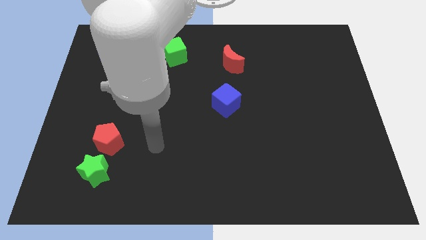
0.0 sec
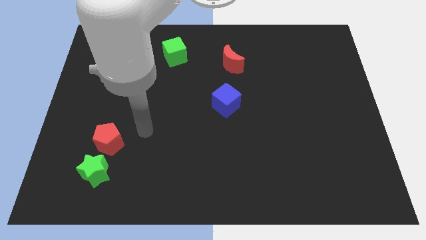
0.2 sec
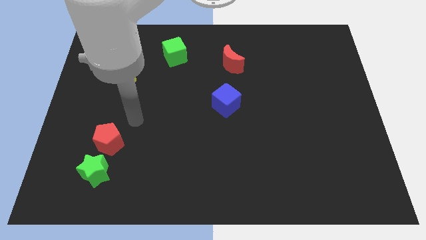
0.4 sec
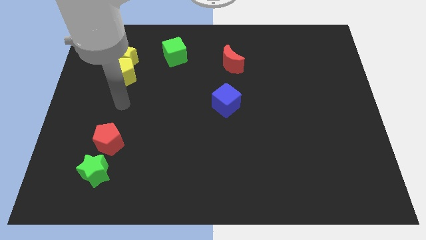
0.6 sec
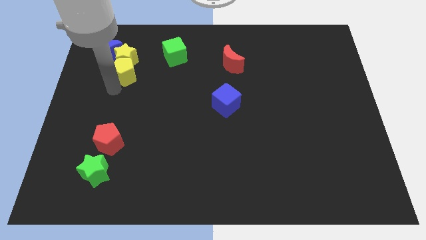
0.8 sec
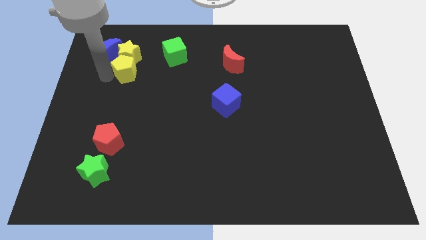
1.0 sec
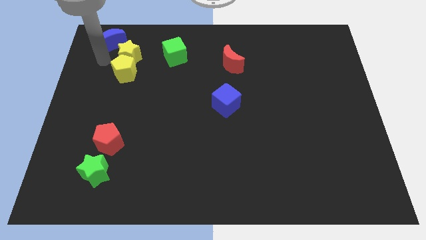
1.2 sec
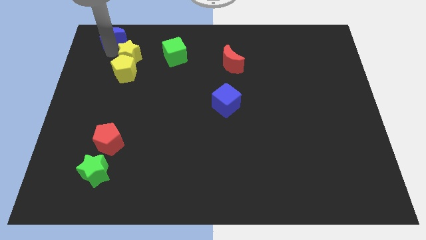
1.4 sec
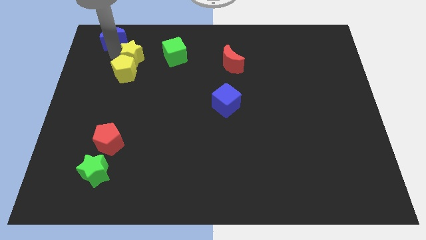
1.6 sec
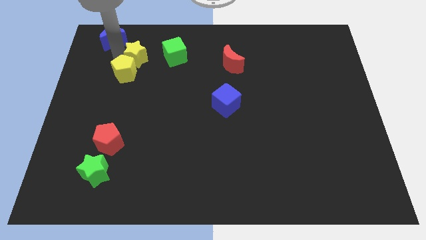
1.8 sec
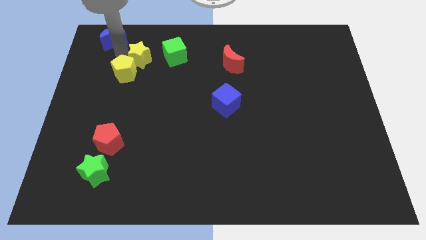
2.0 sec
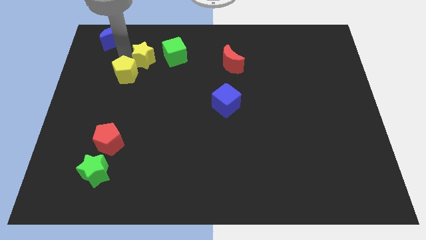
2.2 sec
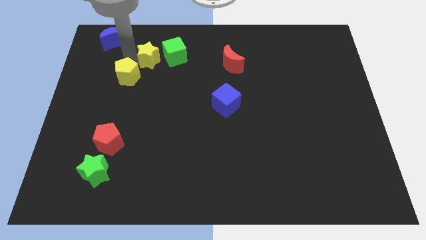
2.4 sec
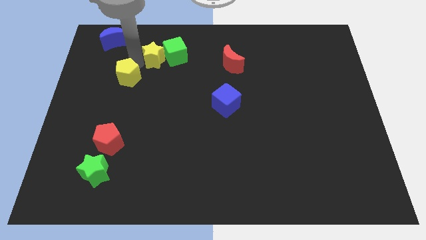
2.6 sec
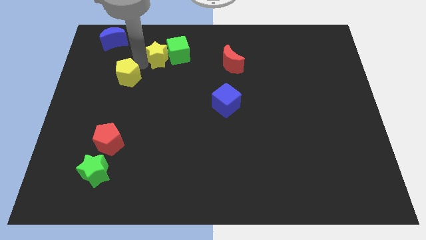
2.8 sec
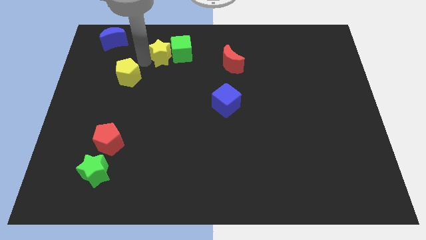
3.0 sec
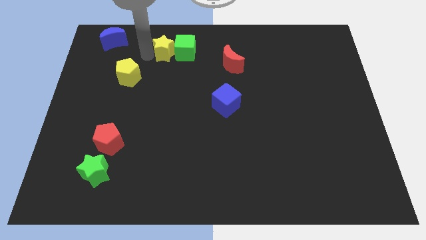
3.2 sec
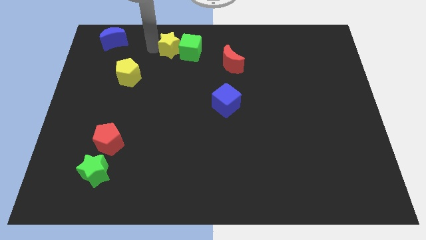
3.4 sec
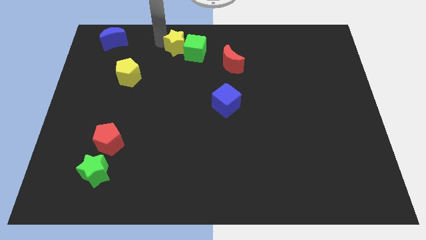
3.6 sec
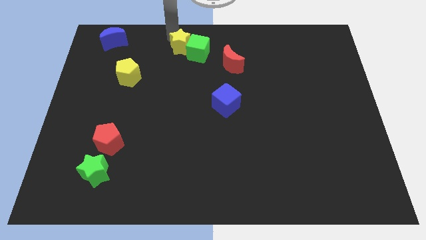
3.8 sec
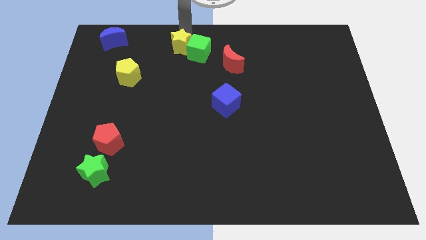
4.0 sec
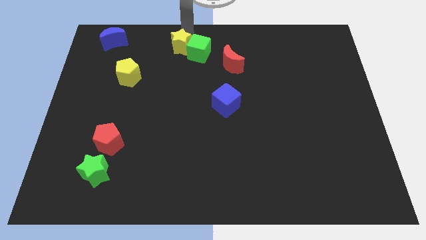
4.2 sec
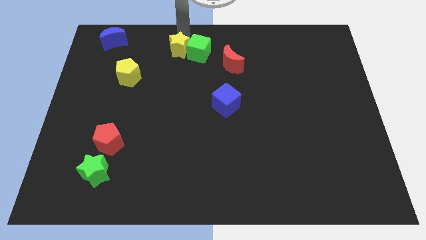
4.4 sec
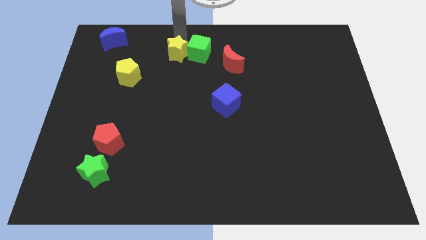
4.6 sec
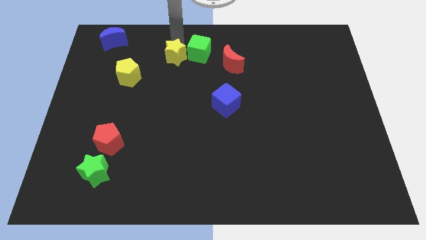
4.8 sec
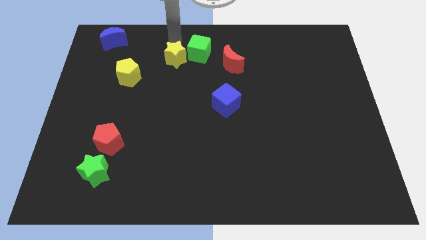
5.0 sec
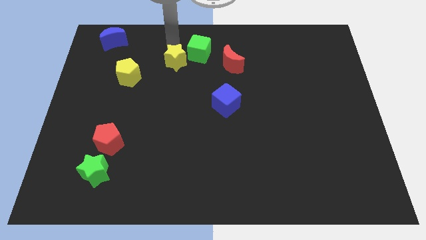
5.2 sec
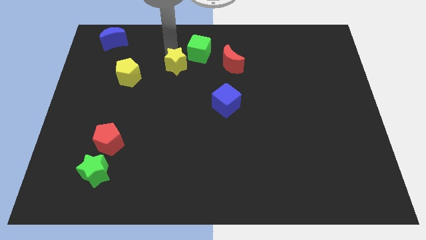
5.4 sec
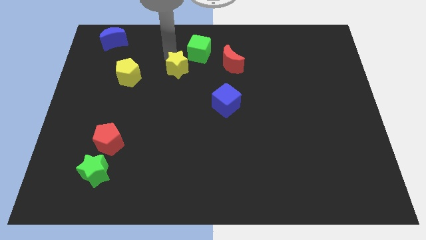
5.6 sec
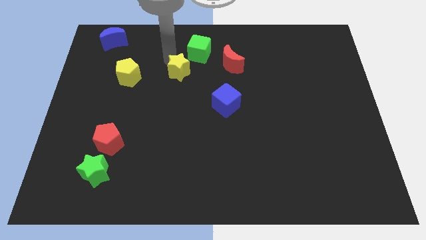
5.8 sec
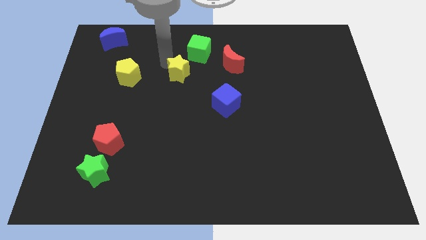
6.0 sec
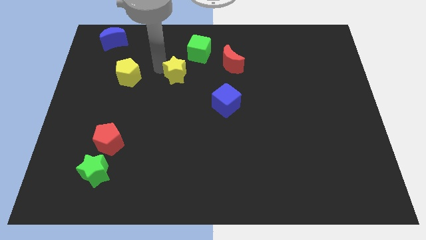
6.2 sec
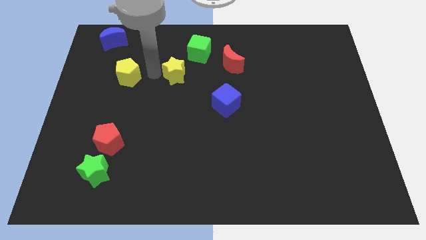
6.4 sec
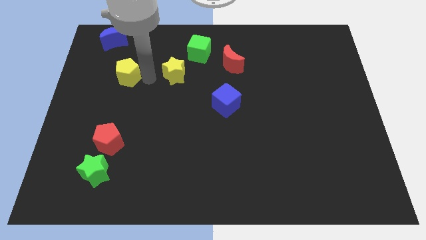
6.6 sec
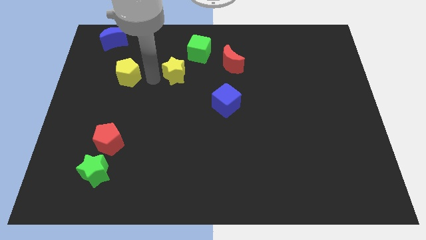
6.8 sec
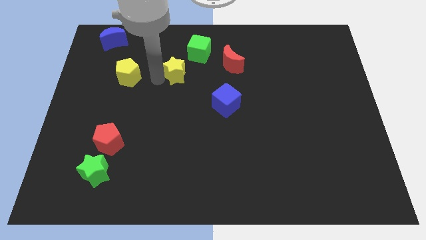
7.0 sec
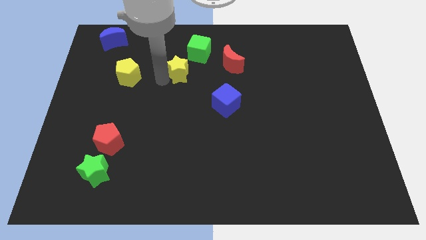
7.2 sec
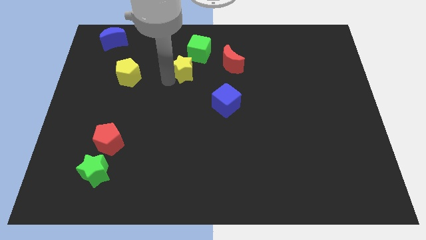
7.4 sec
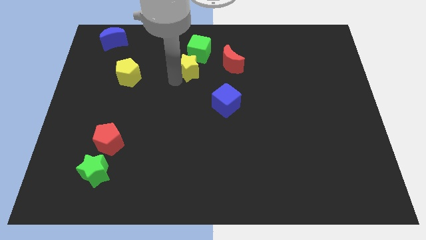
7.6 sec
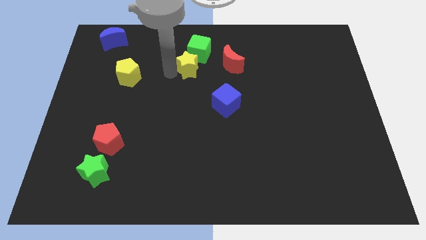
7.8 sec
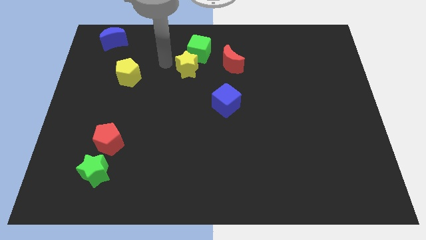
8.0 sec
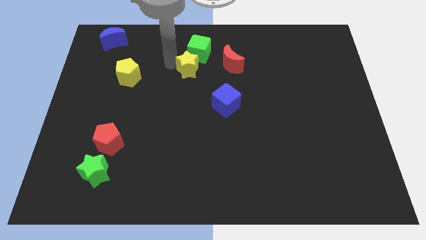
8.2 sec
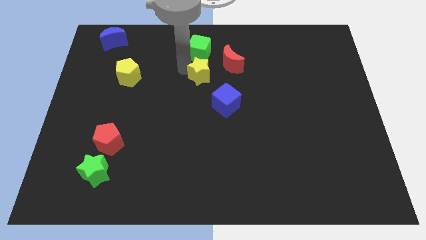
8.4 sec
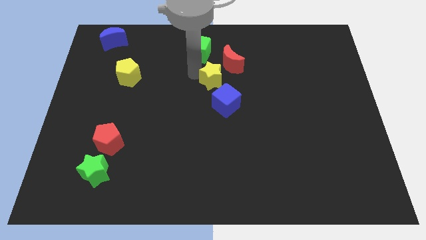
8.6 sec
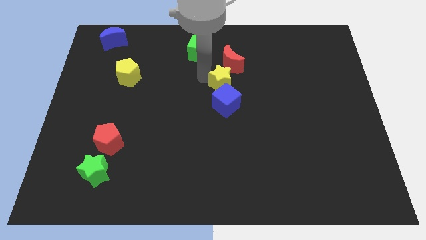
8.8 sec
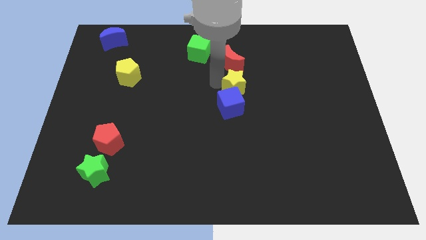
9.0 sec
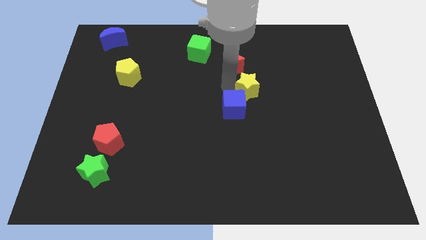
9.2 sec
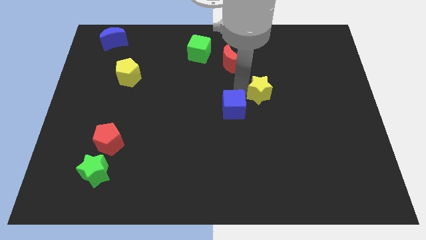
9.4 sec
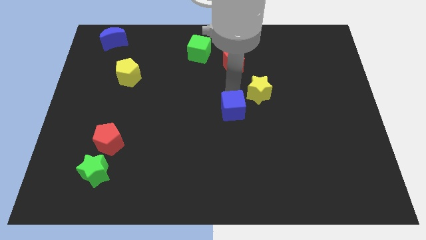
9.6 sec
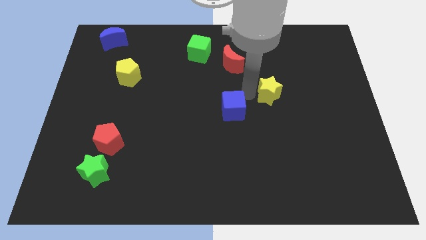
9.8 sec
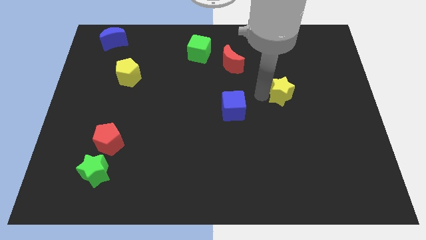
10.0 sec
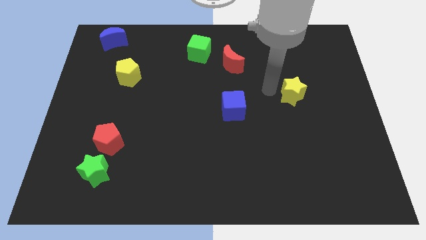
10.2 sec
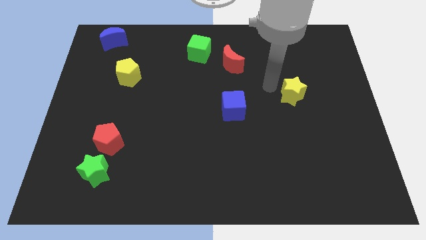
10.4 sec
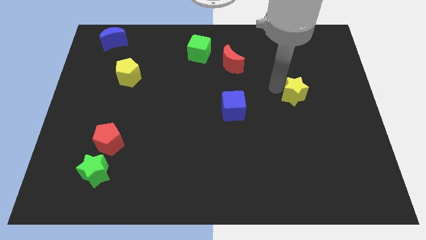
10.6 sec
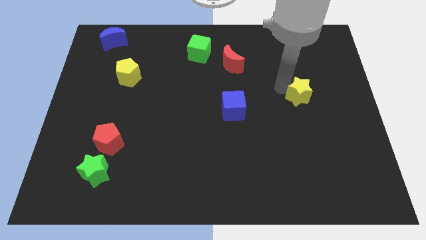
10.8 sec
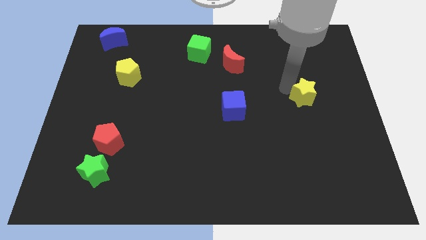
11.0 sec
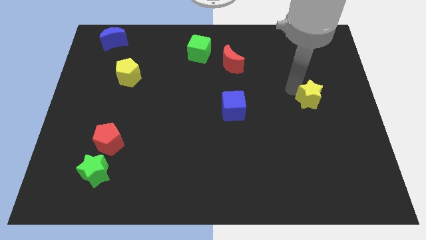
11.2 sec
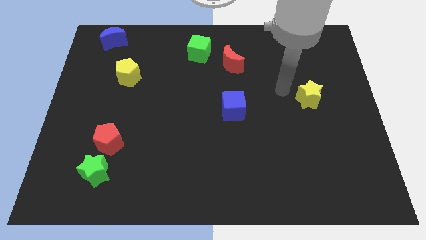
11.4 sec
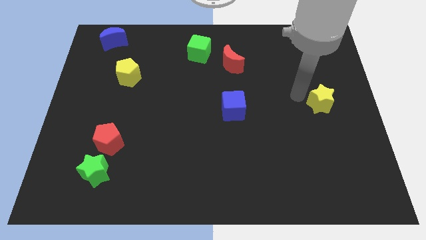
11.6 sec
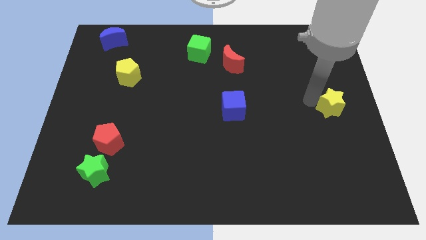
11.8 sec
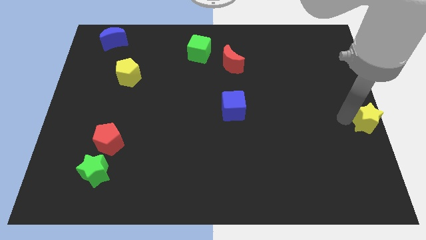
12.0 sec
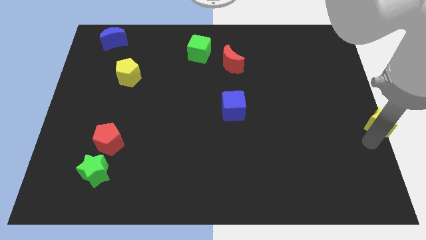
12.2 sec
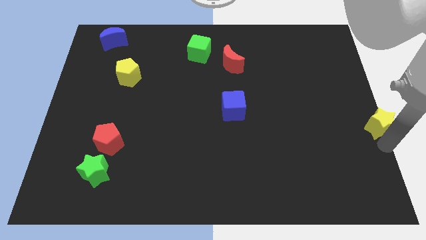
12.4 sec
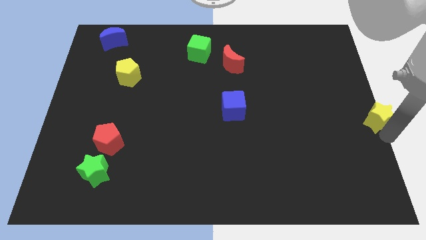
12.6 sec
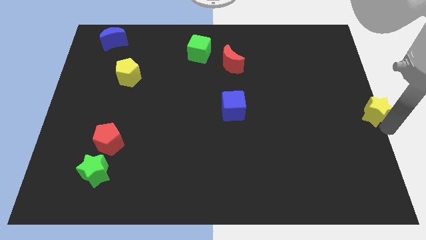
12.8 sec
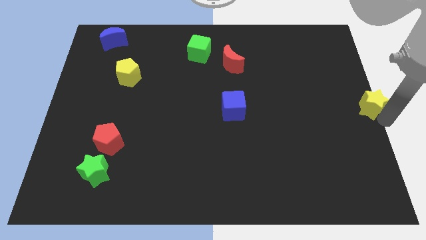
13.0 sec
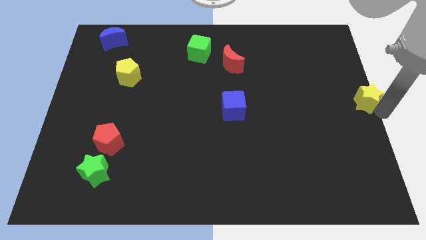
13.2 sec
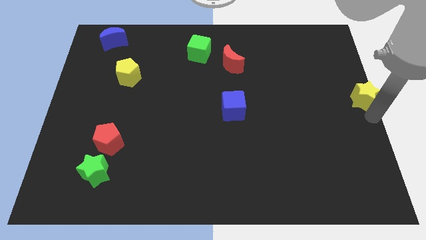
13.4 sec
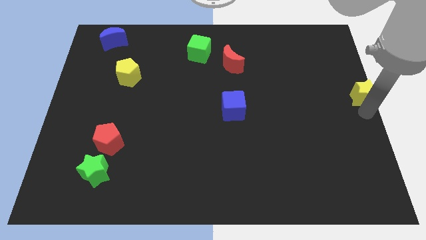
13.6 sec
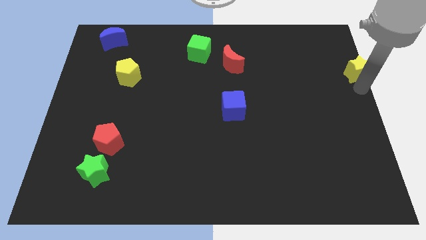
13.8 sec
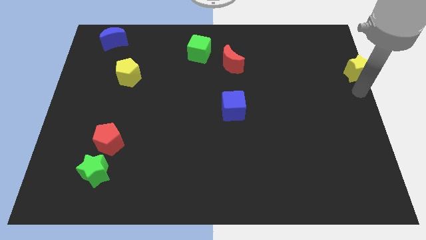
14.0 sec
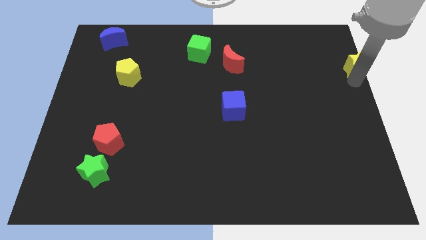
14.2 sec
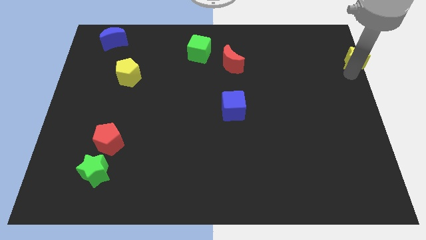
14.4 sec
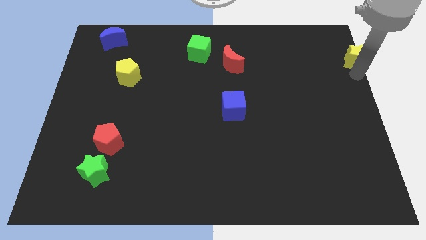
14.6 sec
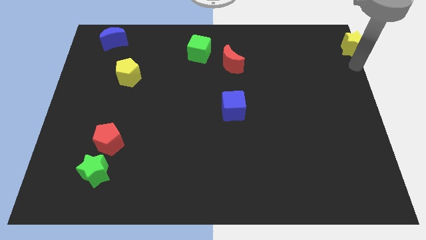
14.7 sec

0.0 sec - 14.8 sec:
put the yellow star to the top right corner
